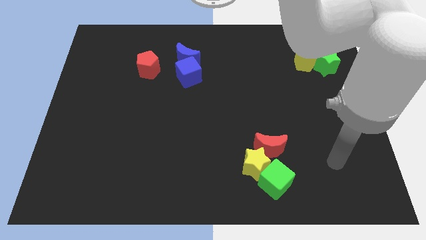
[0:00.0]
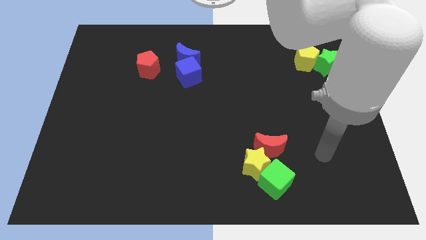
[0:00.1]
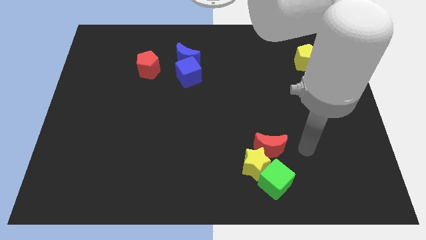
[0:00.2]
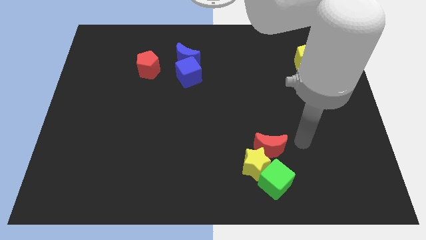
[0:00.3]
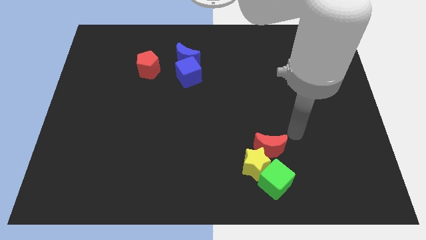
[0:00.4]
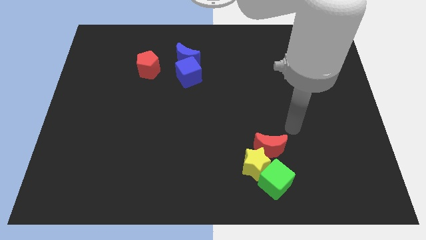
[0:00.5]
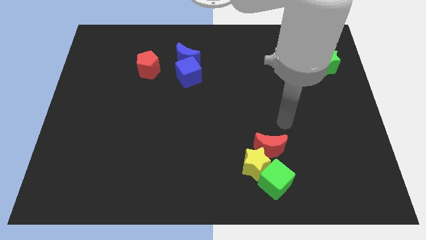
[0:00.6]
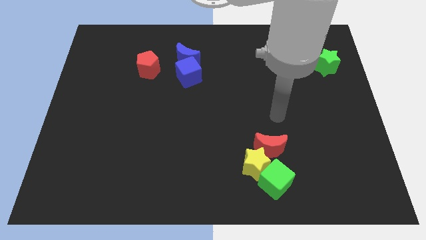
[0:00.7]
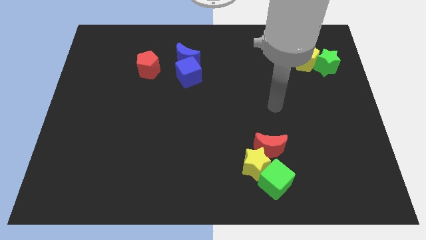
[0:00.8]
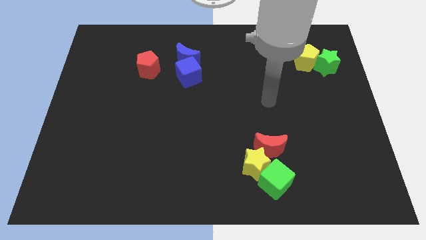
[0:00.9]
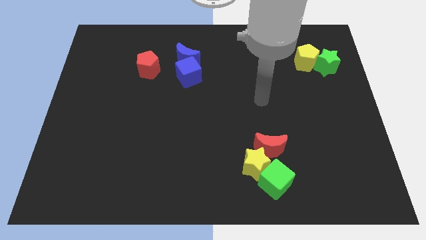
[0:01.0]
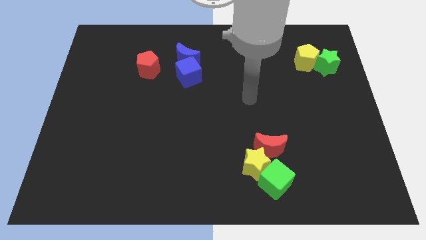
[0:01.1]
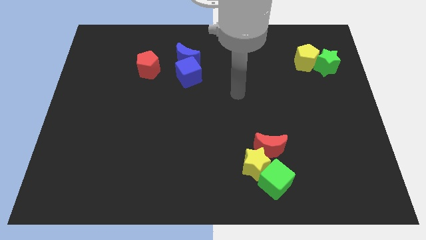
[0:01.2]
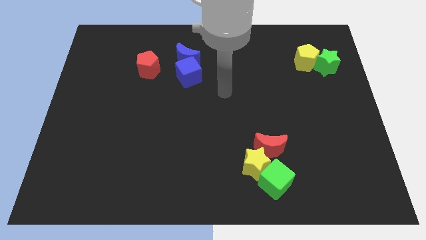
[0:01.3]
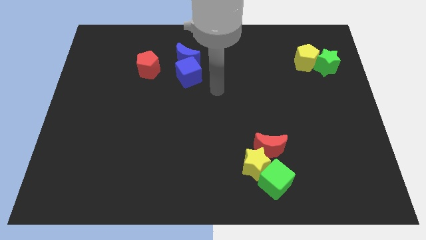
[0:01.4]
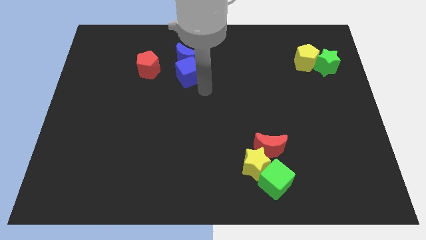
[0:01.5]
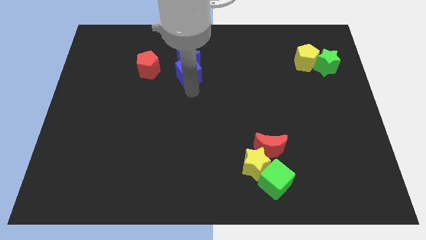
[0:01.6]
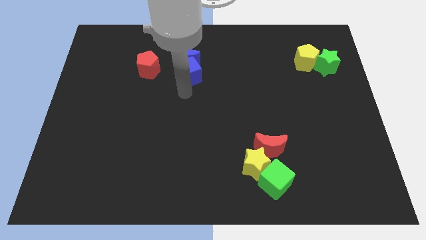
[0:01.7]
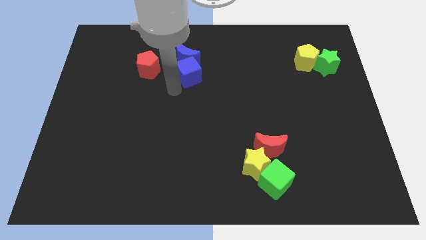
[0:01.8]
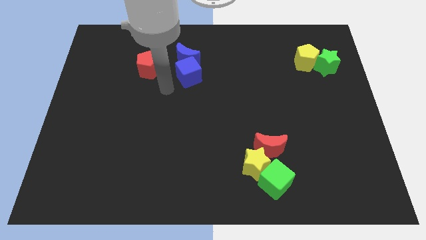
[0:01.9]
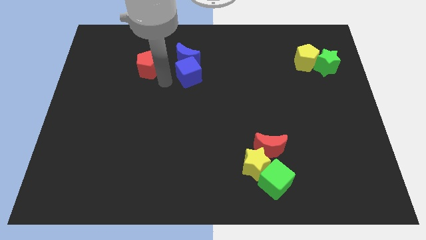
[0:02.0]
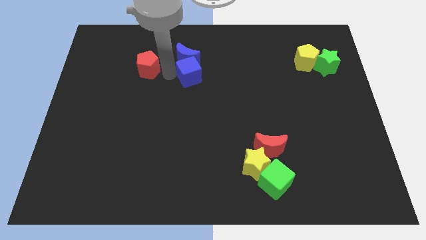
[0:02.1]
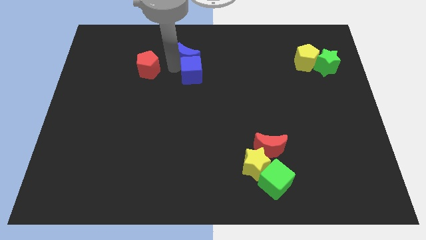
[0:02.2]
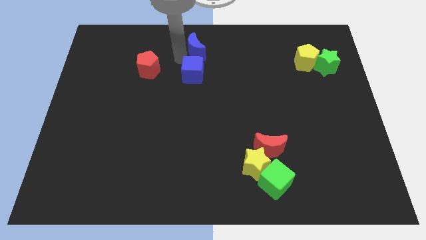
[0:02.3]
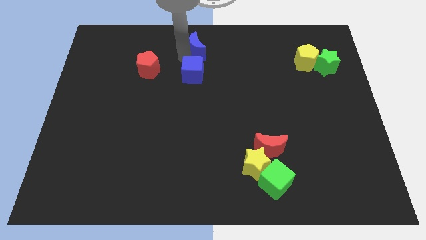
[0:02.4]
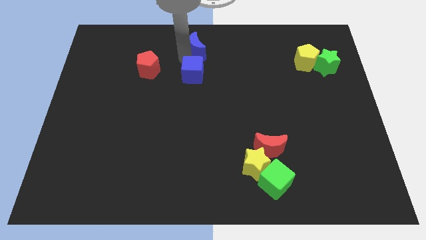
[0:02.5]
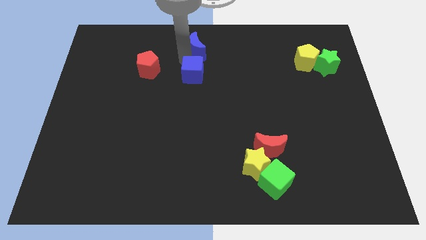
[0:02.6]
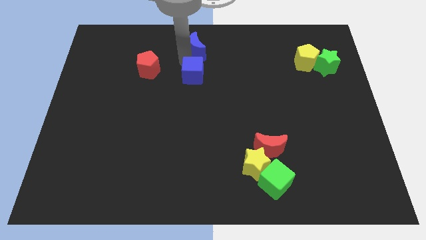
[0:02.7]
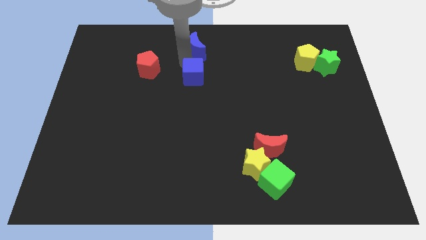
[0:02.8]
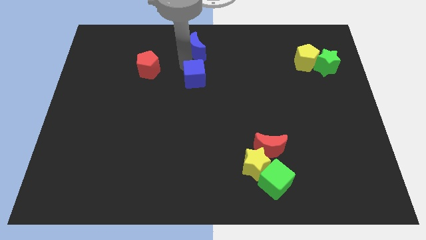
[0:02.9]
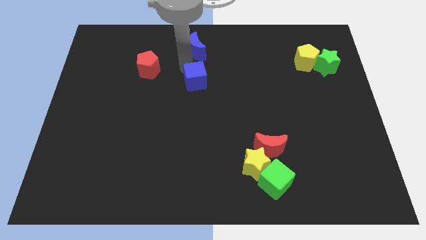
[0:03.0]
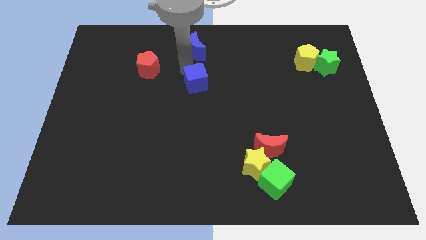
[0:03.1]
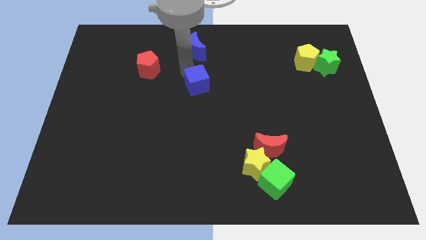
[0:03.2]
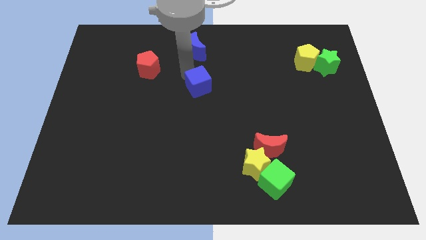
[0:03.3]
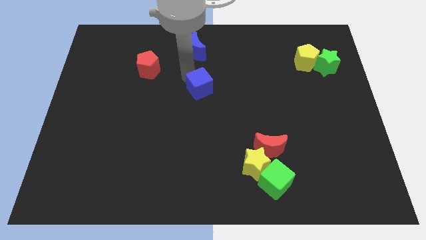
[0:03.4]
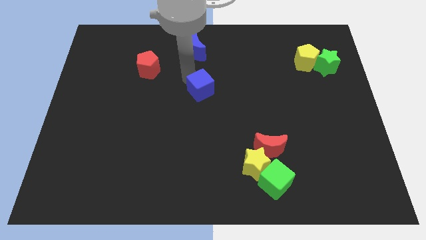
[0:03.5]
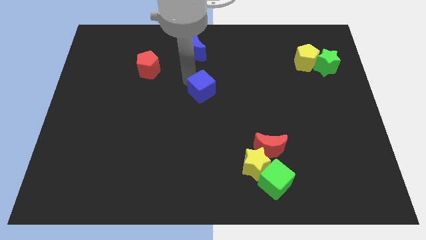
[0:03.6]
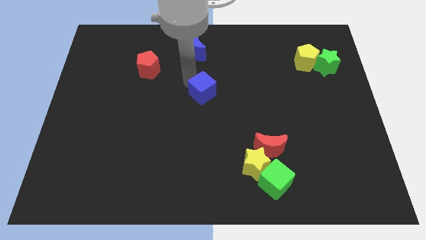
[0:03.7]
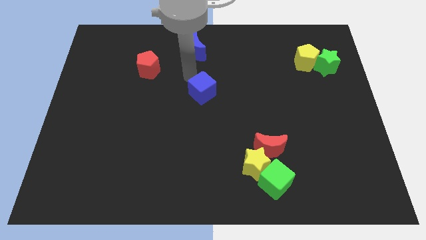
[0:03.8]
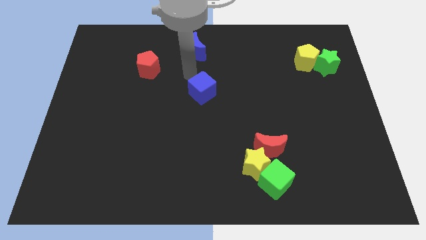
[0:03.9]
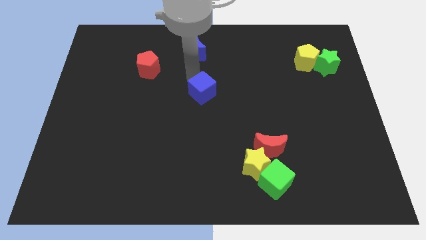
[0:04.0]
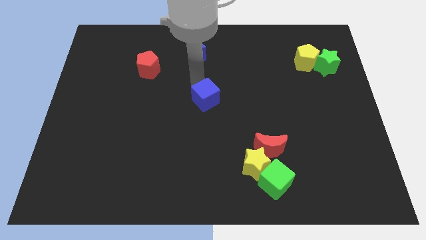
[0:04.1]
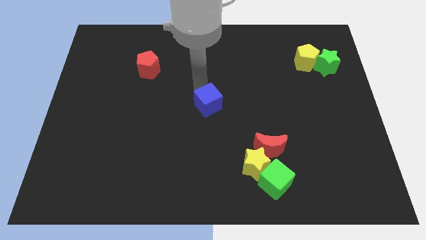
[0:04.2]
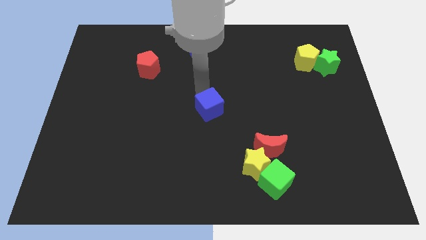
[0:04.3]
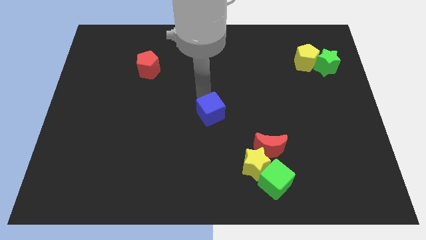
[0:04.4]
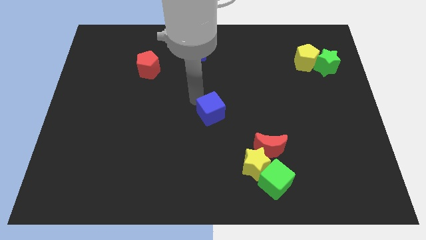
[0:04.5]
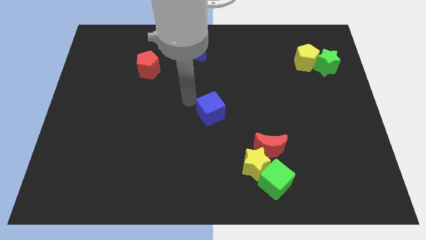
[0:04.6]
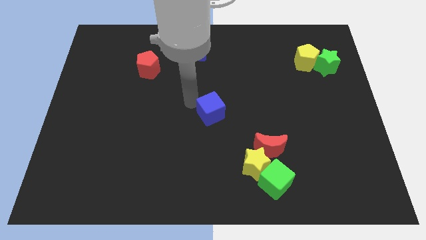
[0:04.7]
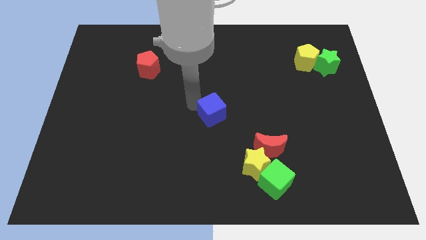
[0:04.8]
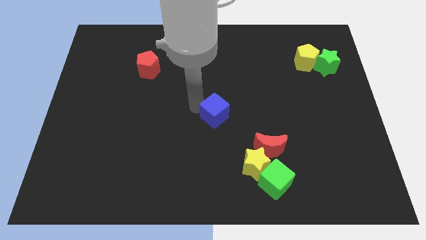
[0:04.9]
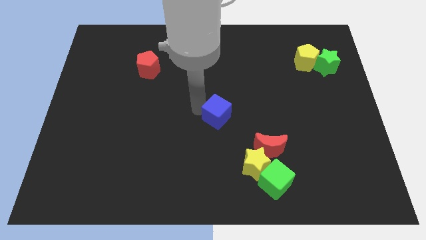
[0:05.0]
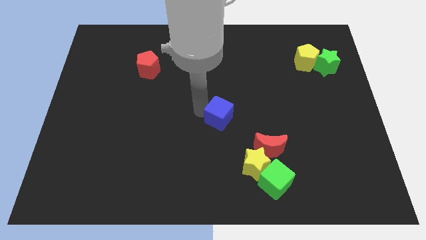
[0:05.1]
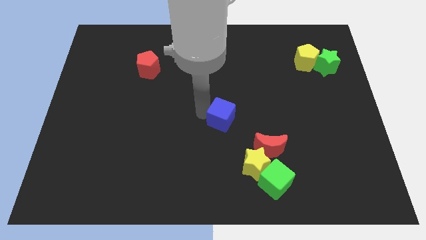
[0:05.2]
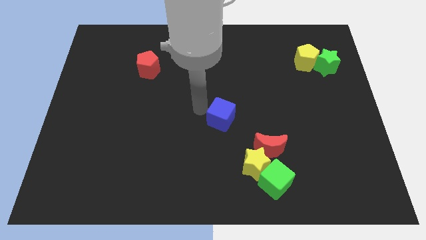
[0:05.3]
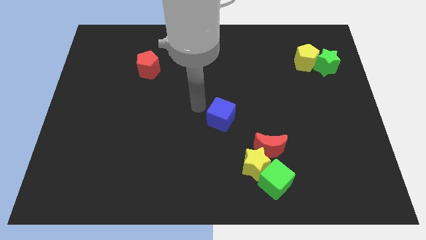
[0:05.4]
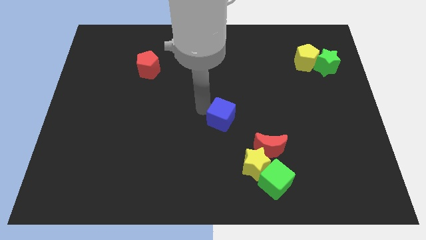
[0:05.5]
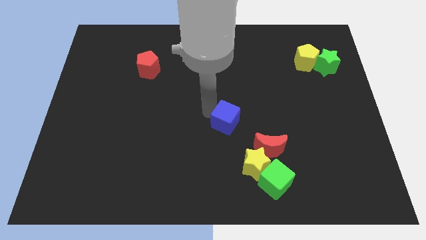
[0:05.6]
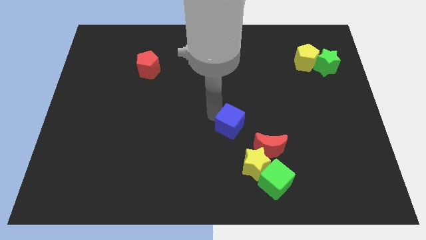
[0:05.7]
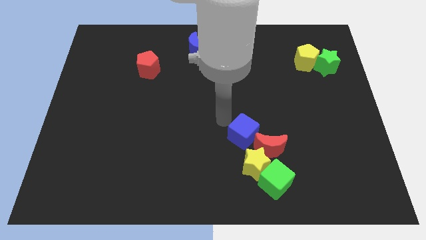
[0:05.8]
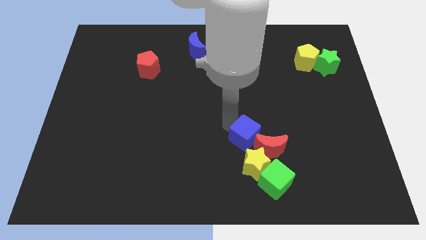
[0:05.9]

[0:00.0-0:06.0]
slide the blue cube towards the red moon

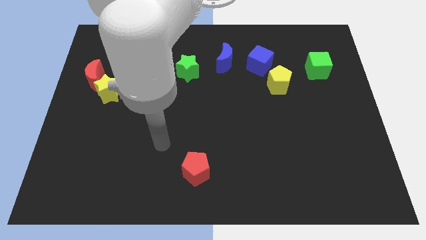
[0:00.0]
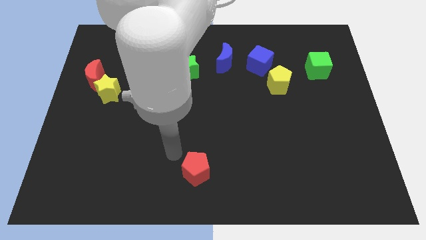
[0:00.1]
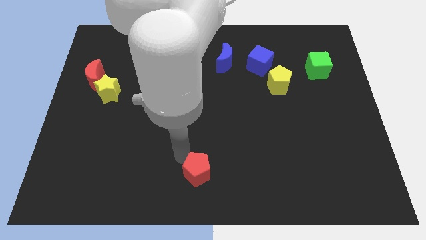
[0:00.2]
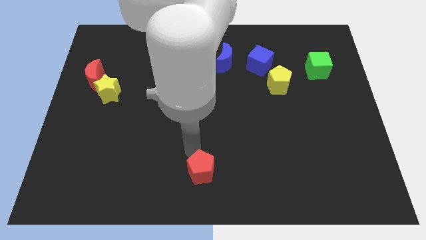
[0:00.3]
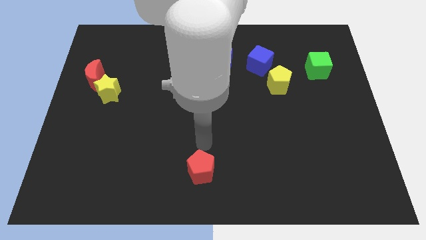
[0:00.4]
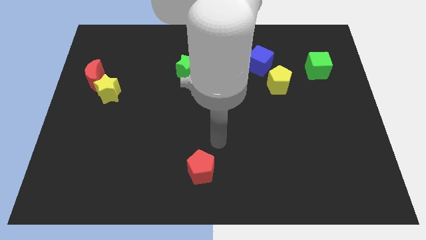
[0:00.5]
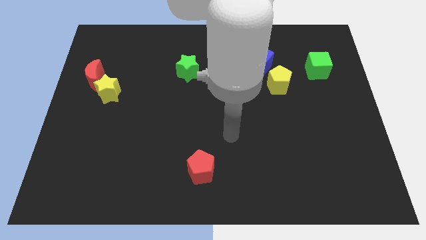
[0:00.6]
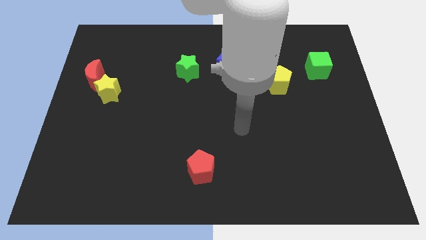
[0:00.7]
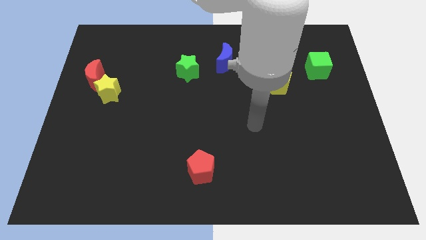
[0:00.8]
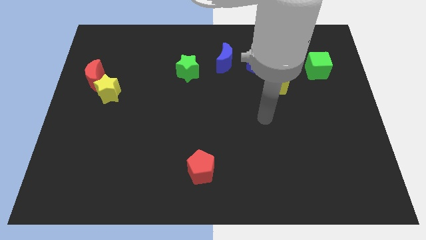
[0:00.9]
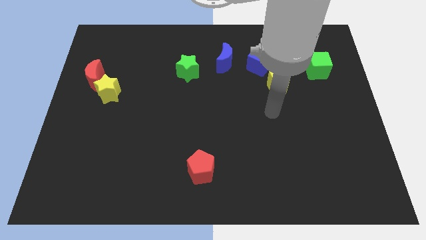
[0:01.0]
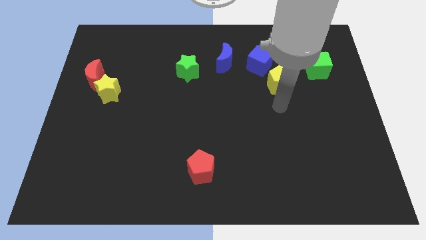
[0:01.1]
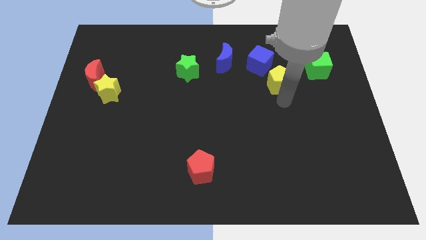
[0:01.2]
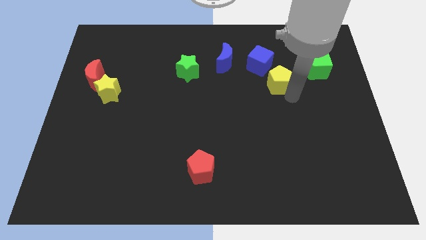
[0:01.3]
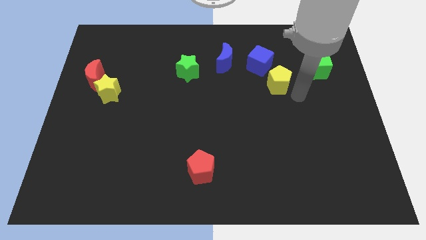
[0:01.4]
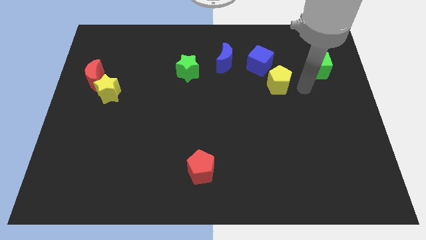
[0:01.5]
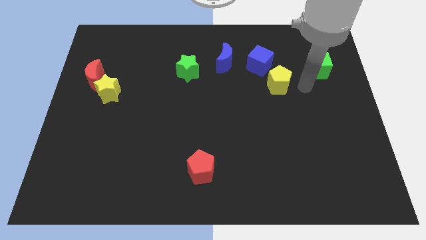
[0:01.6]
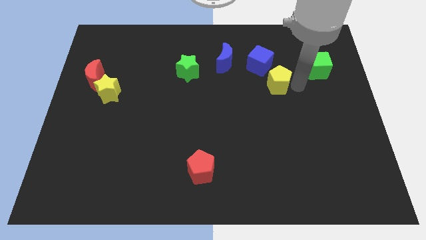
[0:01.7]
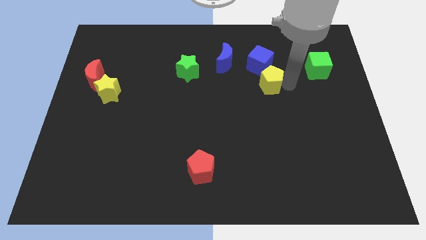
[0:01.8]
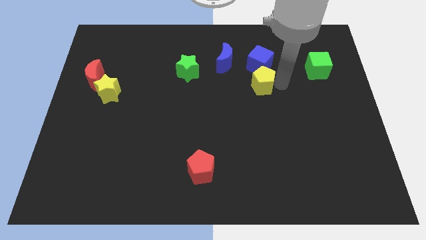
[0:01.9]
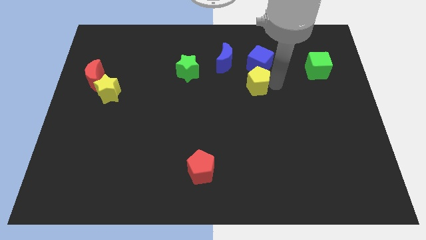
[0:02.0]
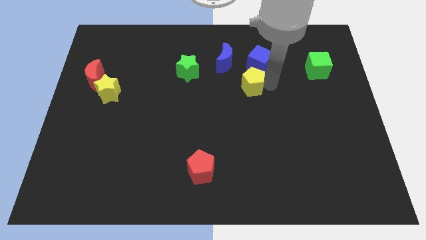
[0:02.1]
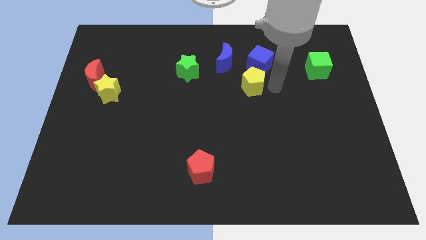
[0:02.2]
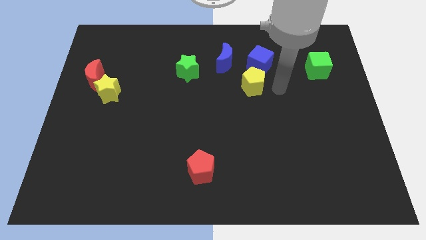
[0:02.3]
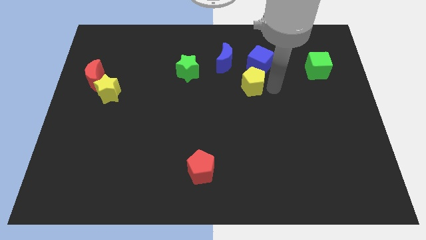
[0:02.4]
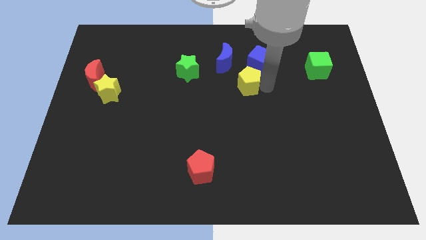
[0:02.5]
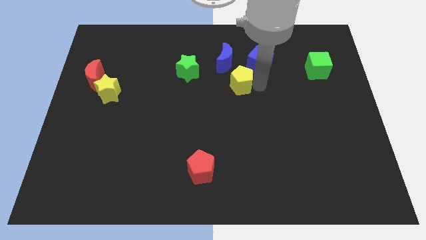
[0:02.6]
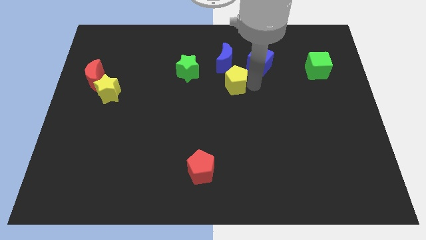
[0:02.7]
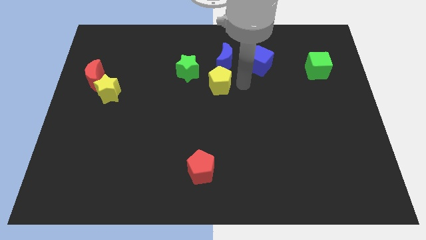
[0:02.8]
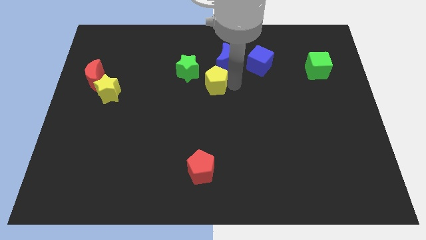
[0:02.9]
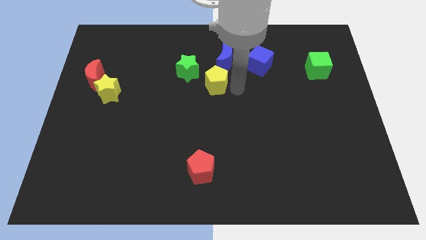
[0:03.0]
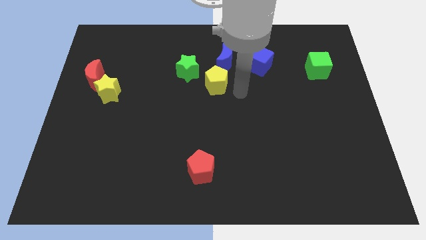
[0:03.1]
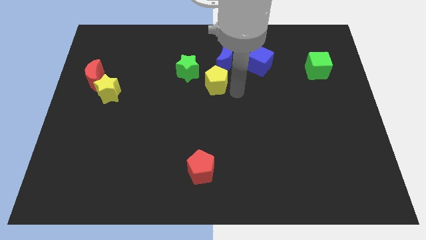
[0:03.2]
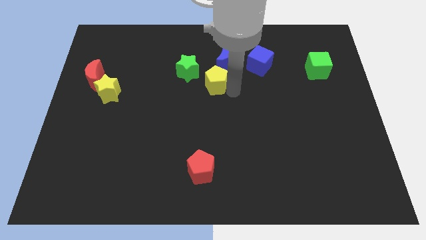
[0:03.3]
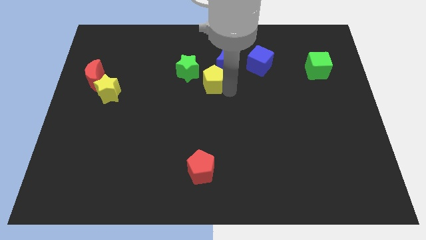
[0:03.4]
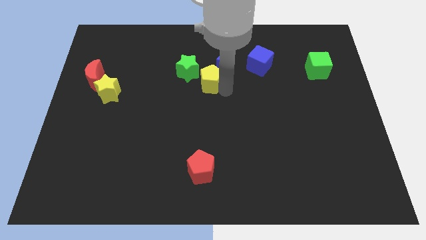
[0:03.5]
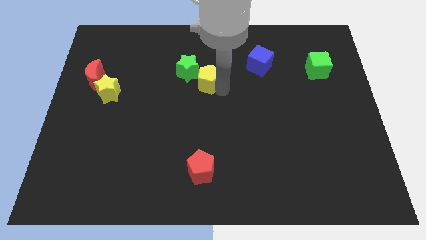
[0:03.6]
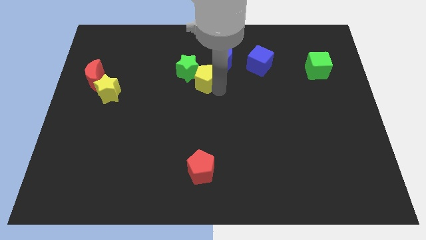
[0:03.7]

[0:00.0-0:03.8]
slide the yellow pentagon towards the green star
